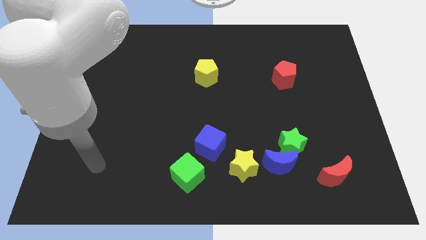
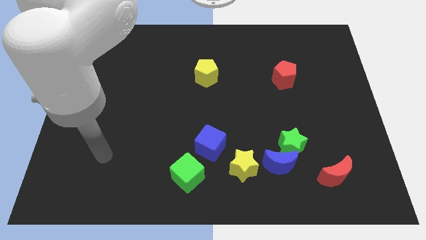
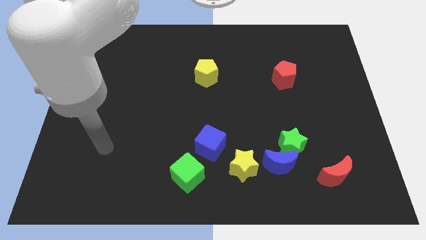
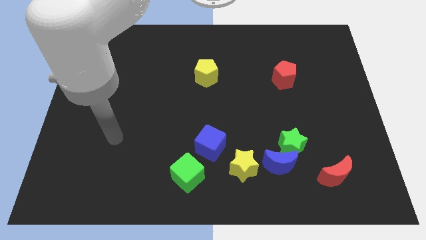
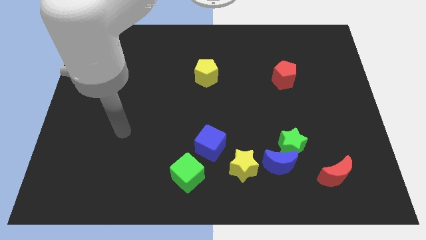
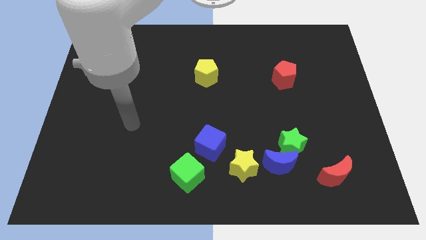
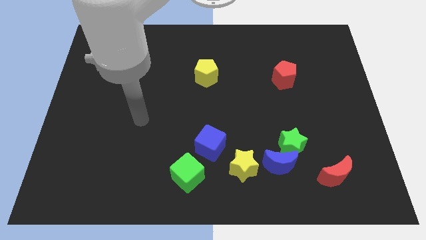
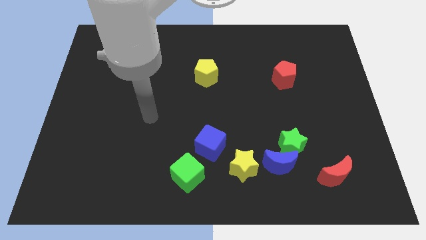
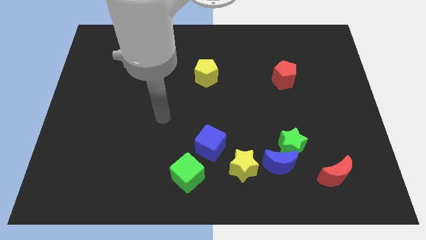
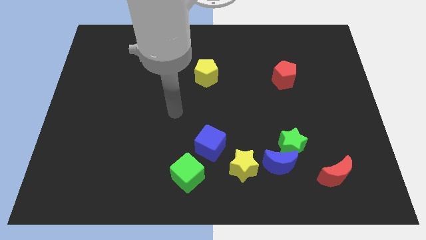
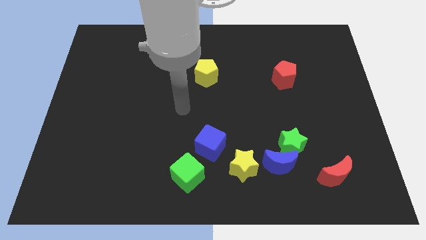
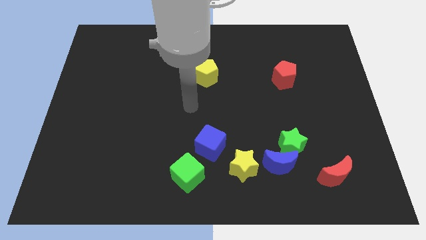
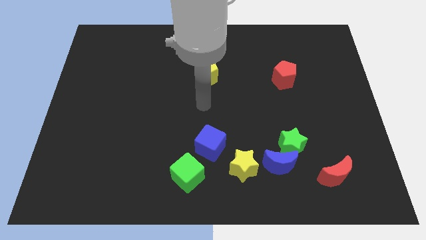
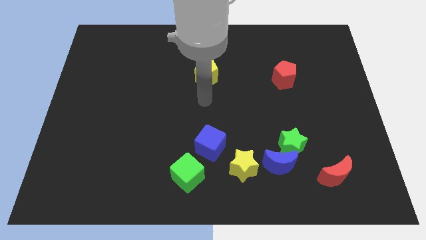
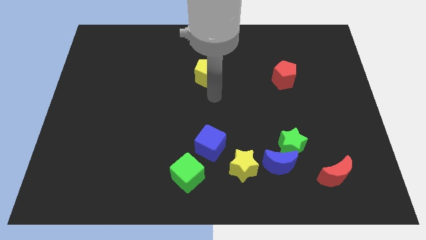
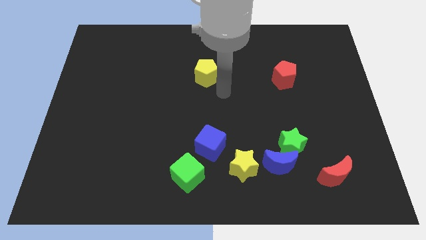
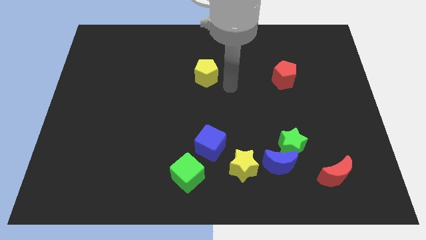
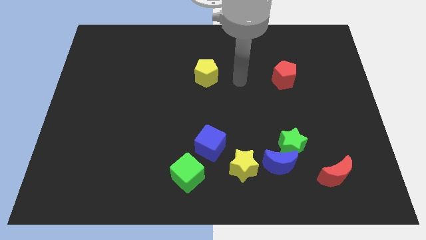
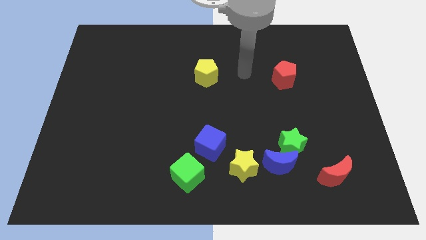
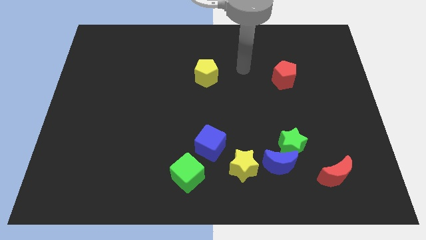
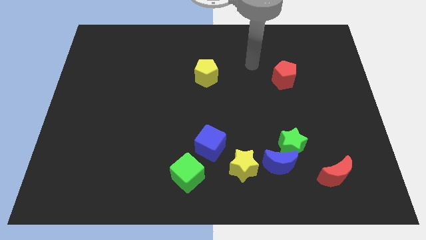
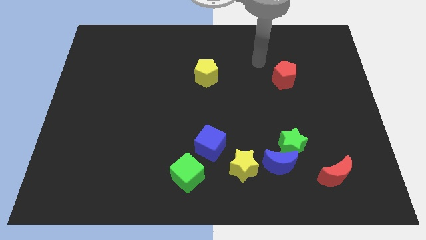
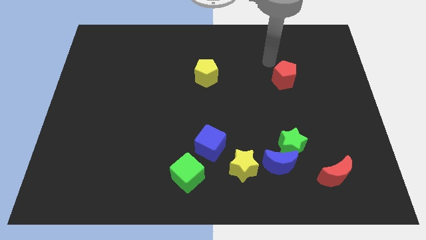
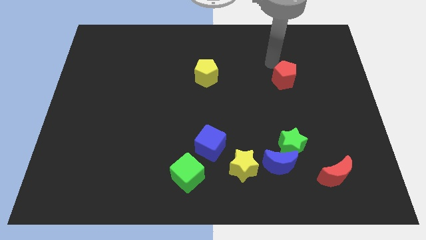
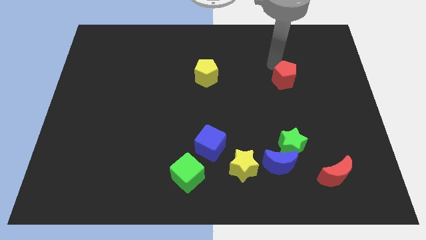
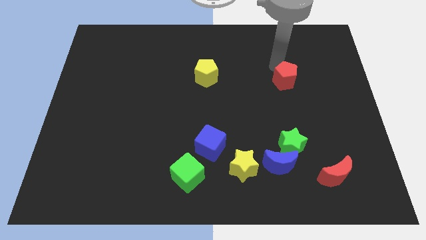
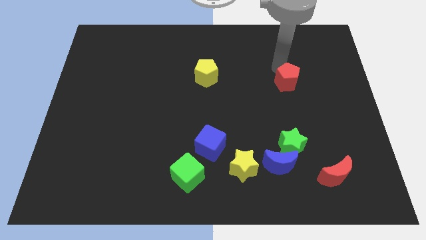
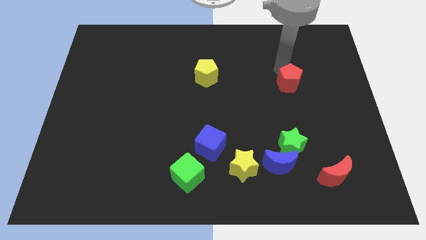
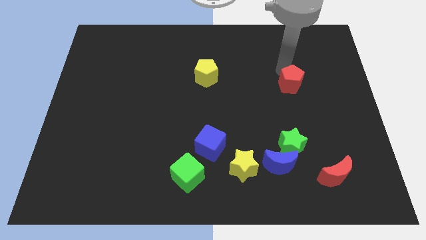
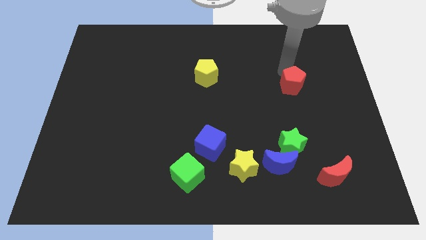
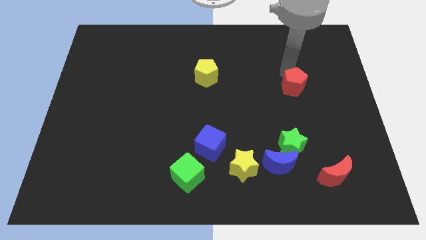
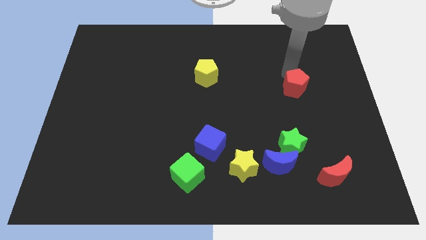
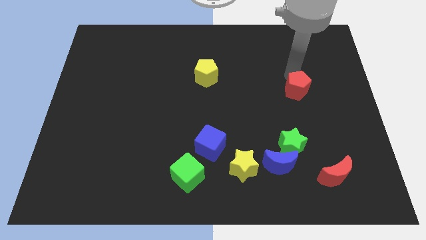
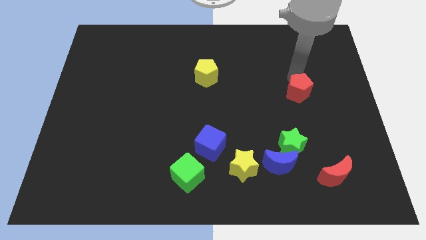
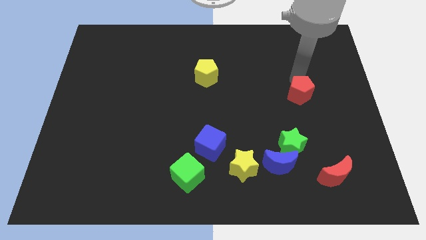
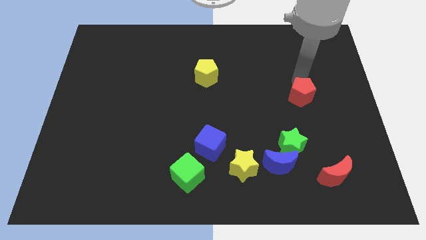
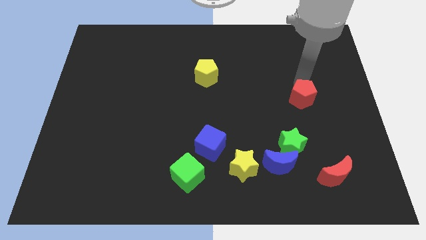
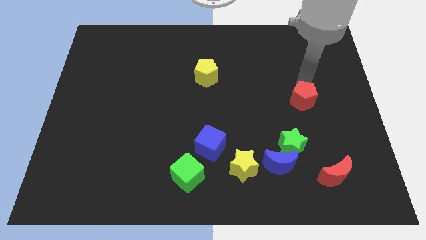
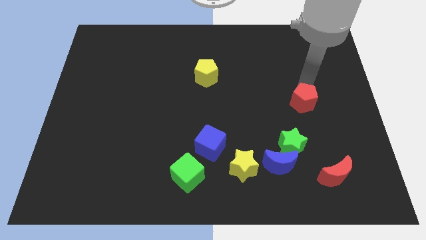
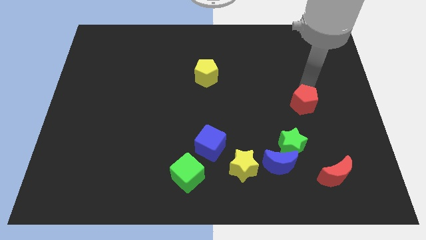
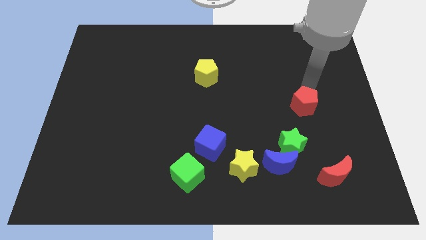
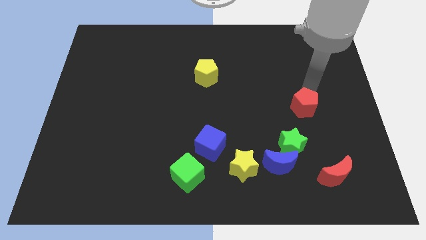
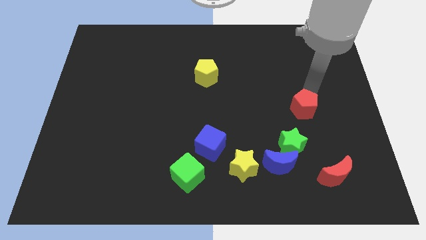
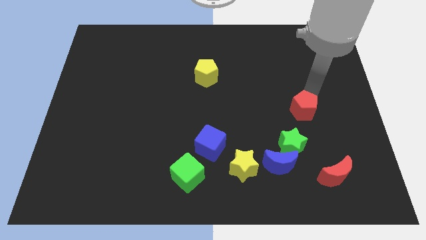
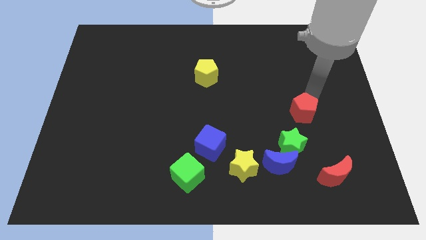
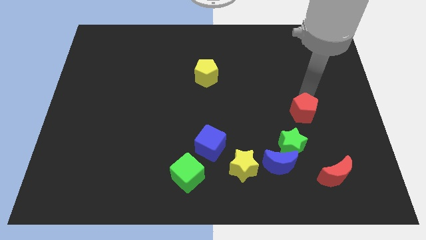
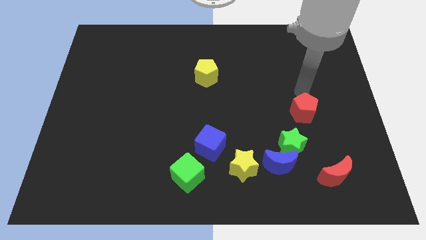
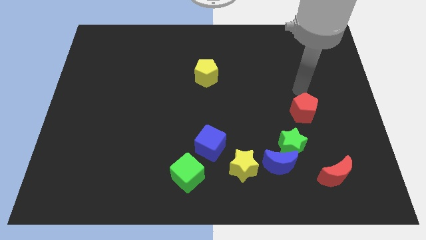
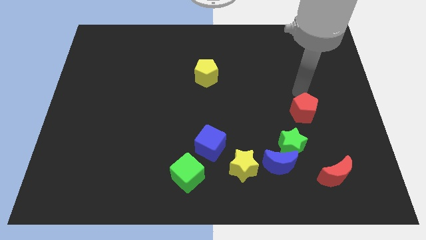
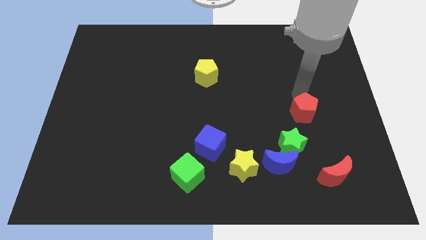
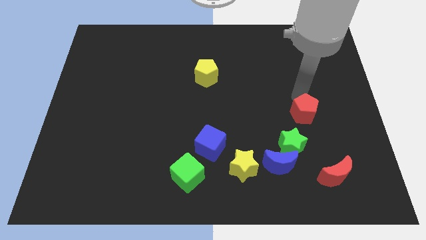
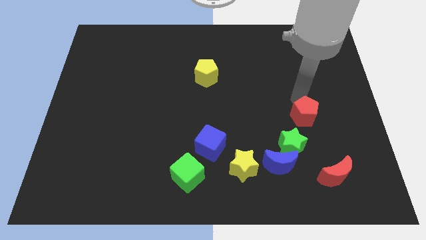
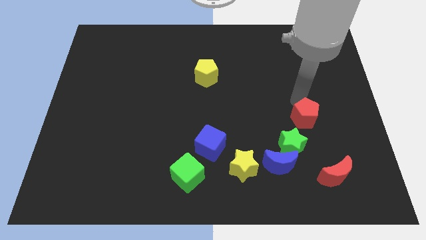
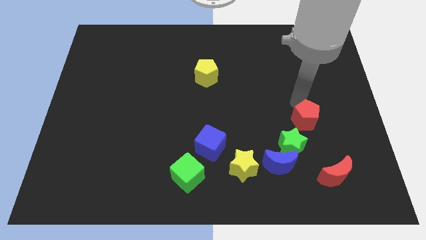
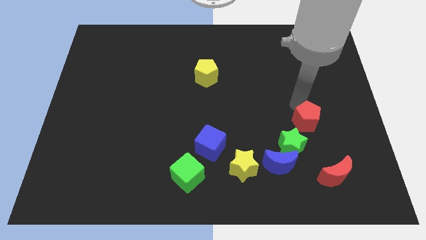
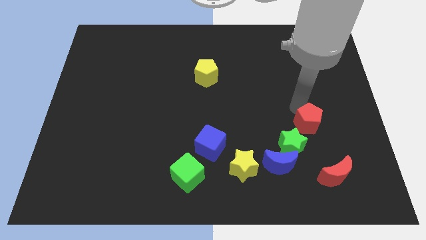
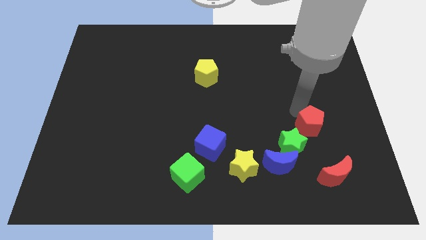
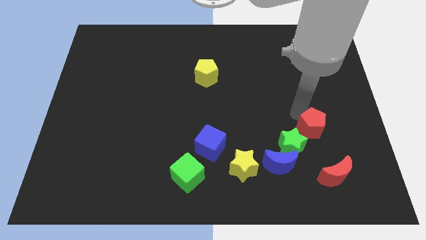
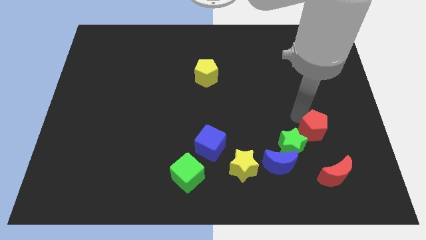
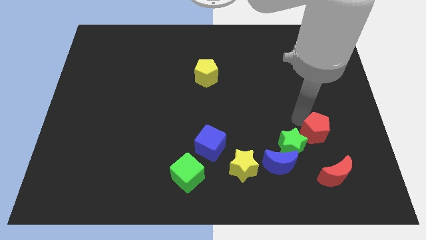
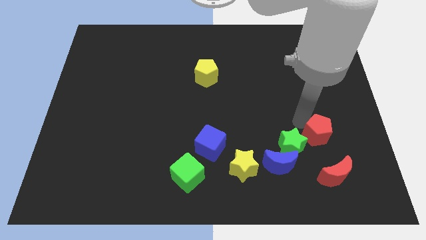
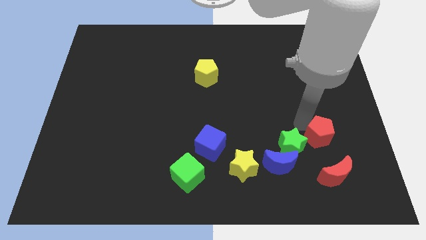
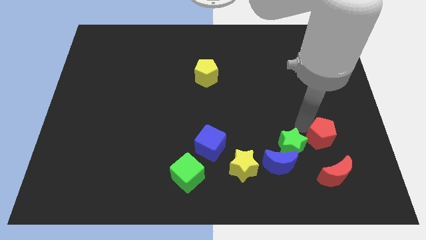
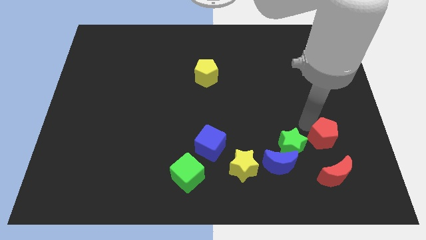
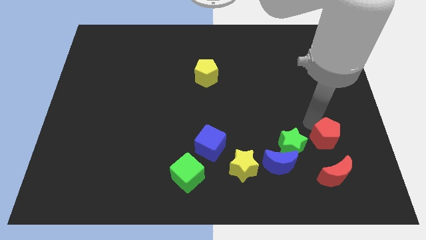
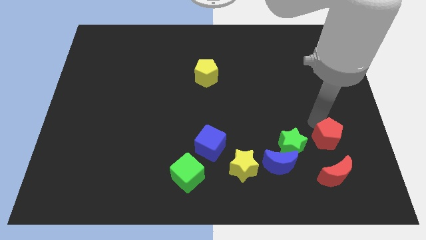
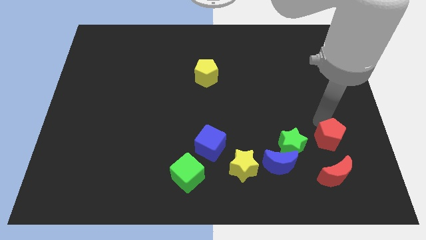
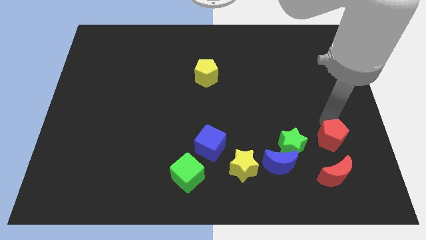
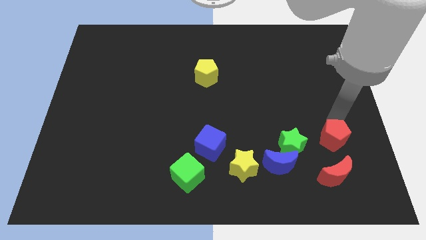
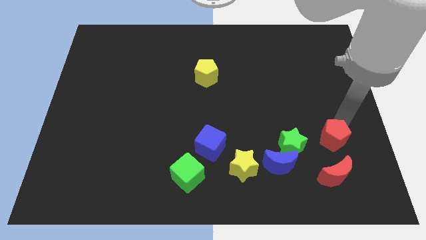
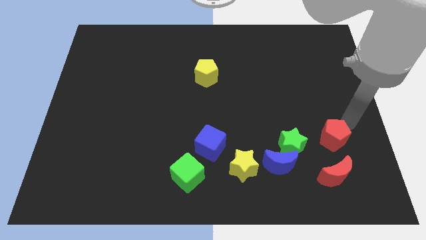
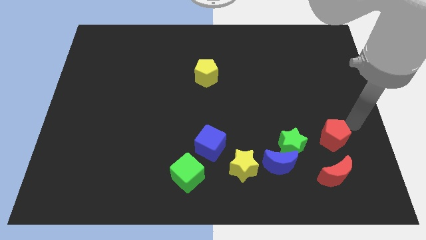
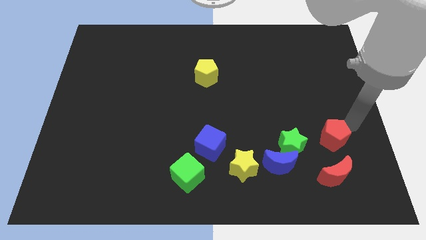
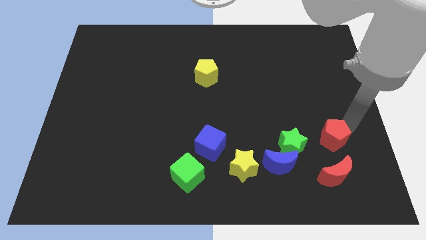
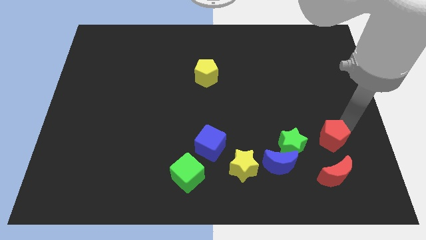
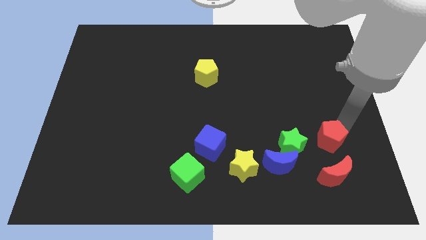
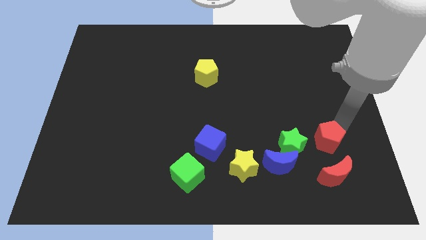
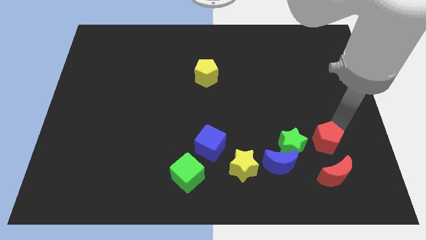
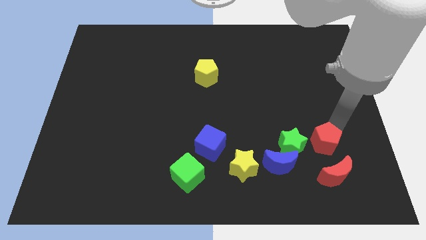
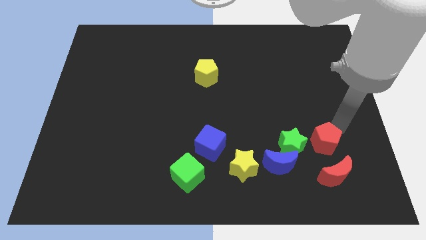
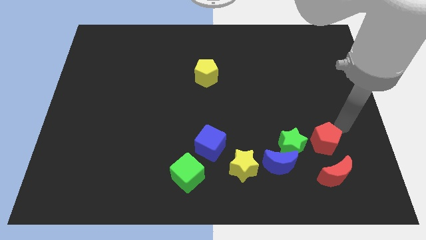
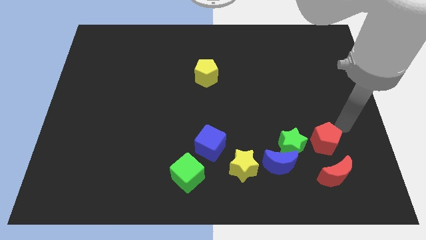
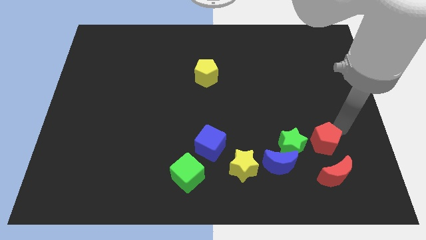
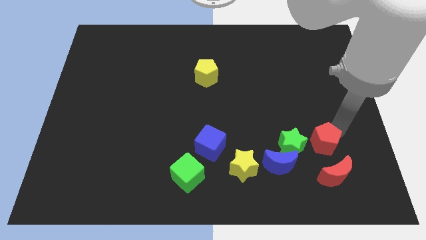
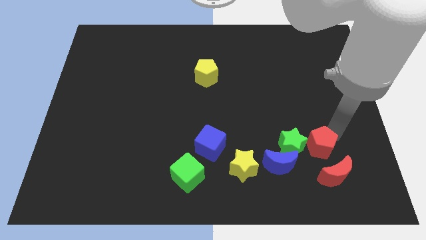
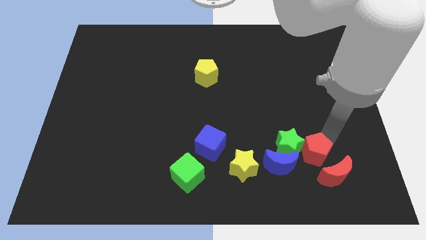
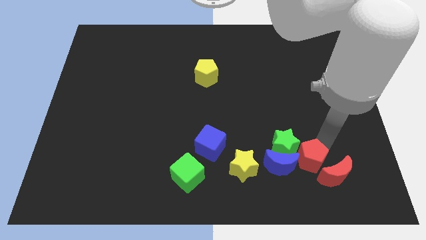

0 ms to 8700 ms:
put the red pentagon right of the yellow star
